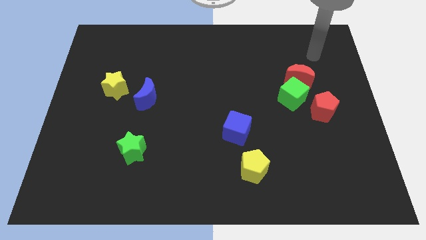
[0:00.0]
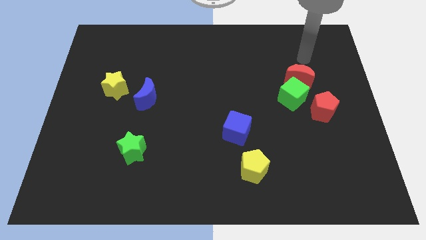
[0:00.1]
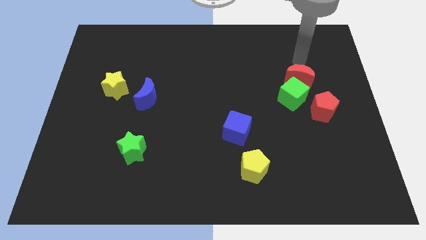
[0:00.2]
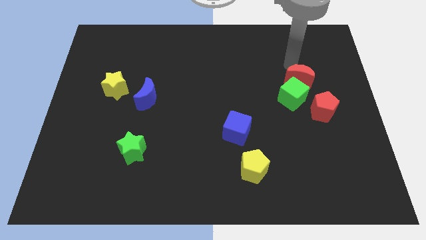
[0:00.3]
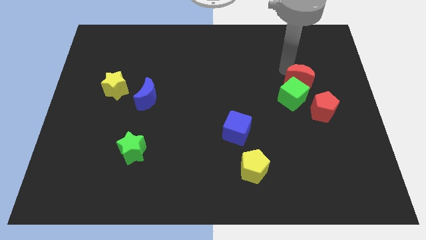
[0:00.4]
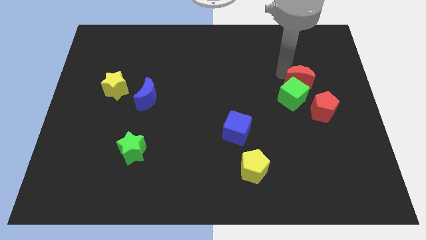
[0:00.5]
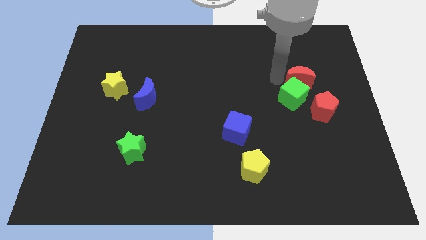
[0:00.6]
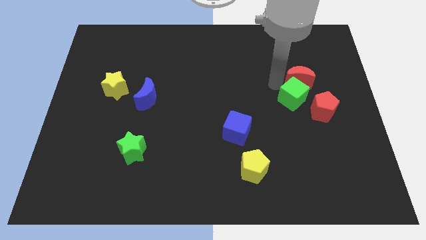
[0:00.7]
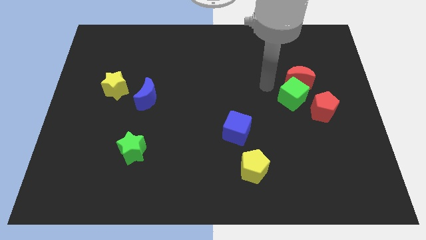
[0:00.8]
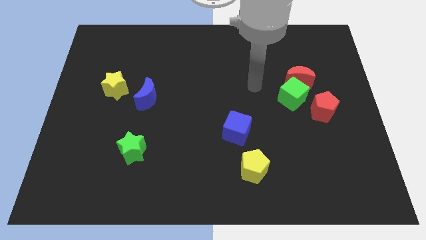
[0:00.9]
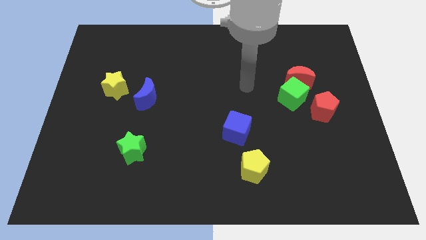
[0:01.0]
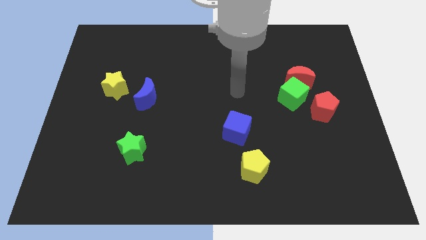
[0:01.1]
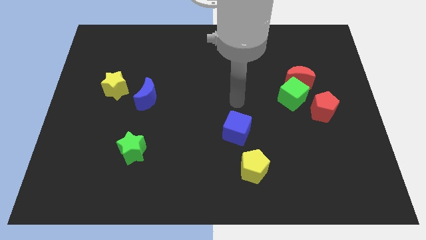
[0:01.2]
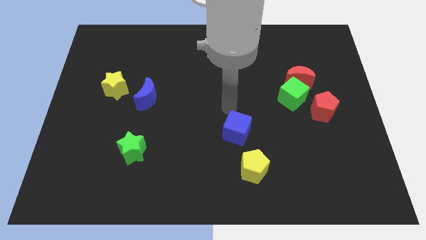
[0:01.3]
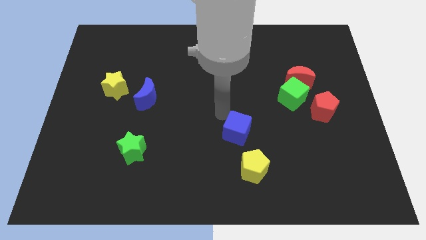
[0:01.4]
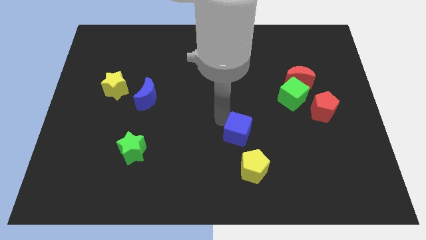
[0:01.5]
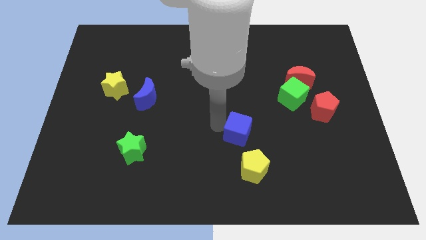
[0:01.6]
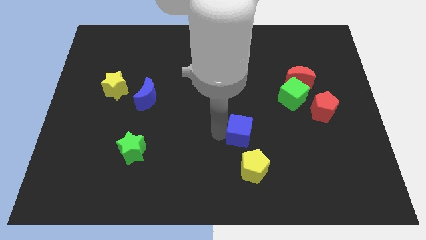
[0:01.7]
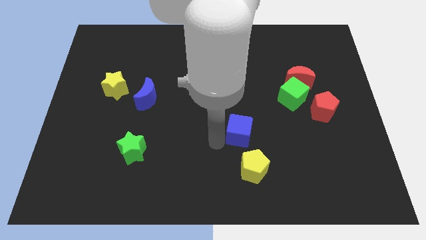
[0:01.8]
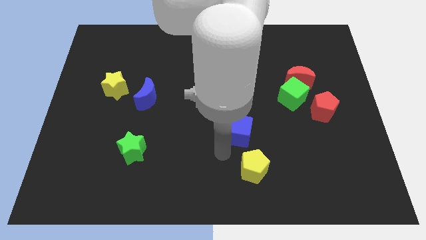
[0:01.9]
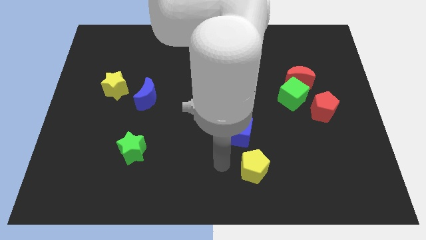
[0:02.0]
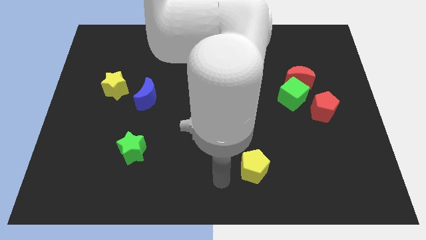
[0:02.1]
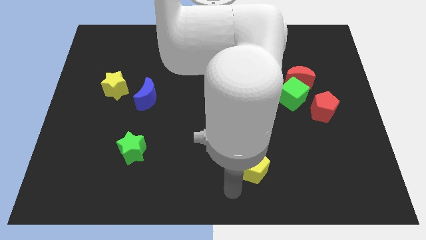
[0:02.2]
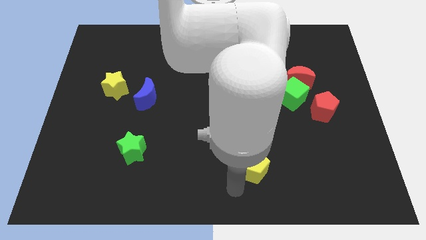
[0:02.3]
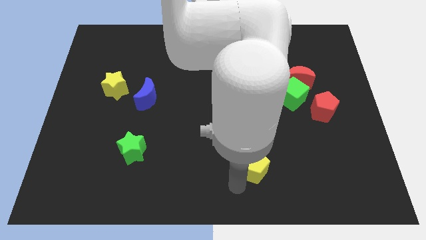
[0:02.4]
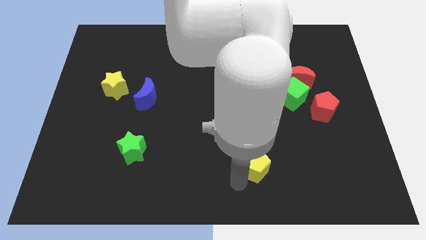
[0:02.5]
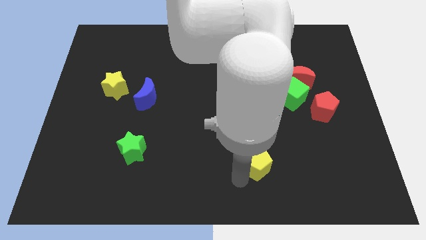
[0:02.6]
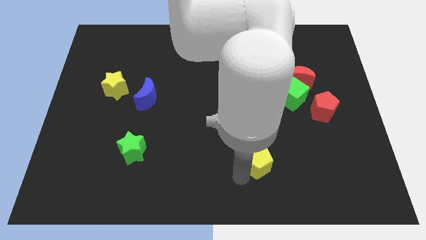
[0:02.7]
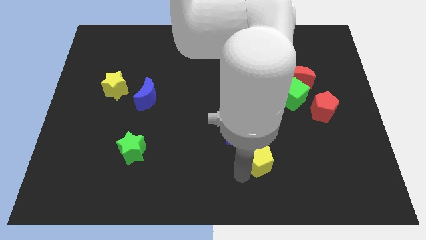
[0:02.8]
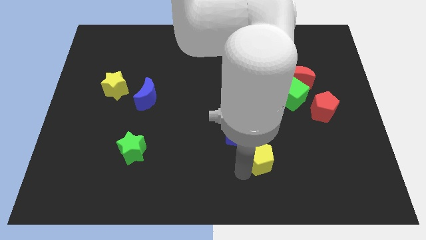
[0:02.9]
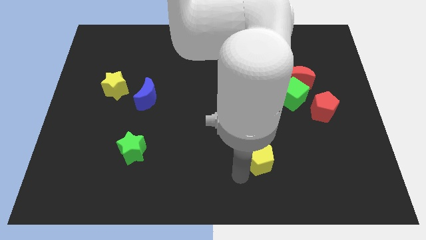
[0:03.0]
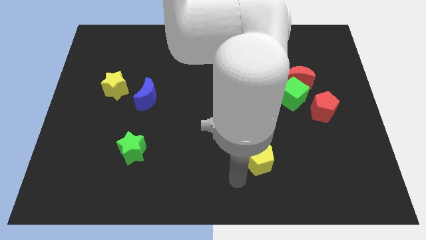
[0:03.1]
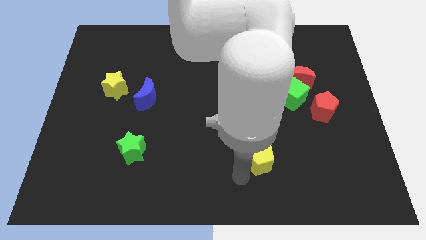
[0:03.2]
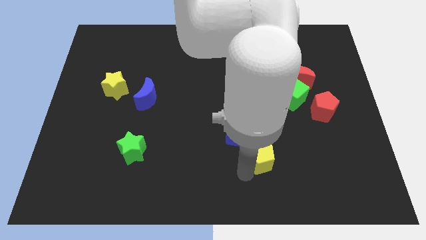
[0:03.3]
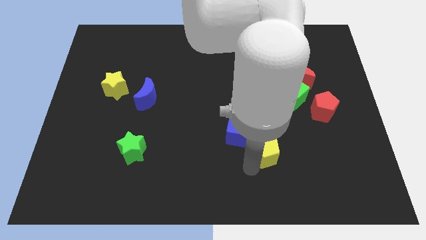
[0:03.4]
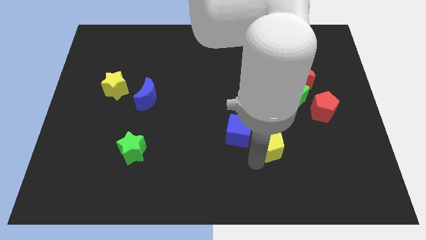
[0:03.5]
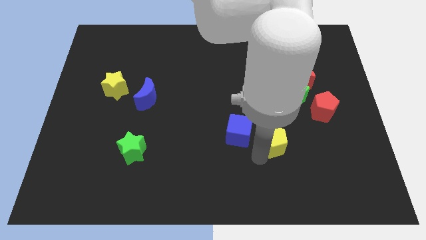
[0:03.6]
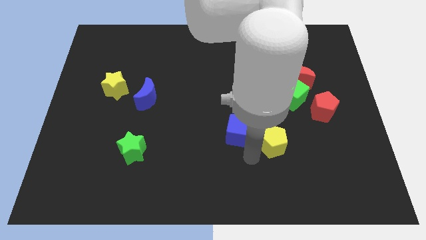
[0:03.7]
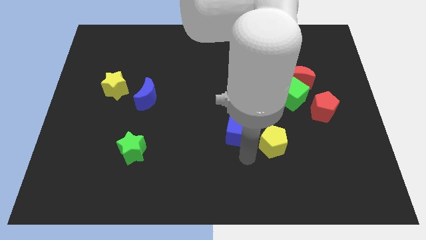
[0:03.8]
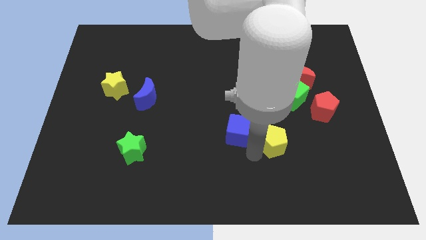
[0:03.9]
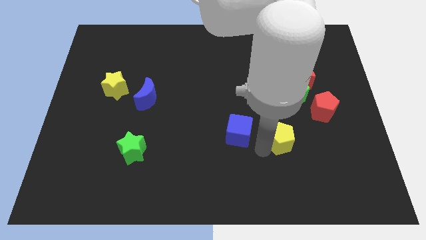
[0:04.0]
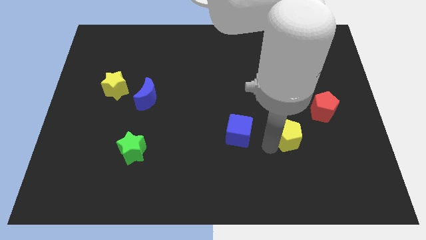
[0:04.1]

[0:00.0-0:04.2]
push the yellow pentagon to the bottom left side of the red pentagon

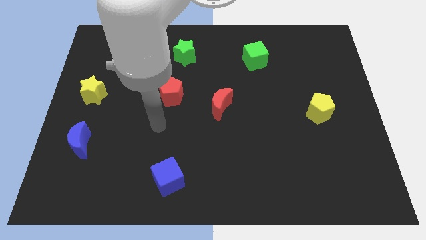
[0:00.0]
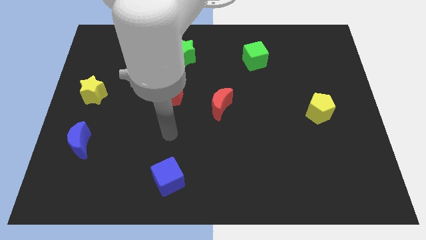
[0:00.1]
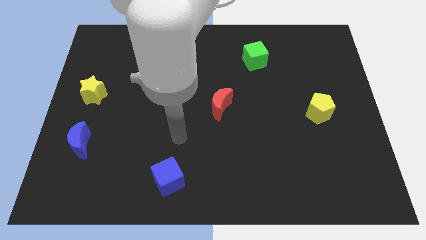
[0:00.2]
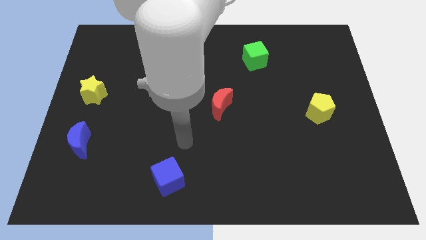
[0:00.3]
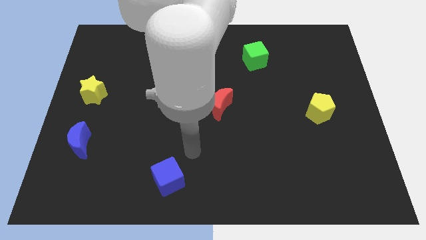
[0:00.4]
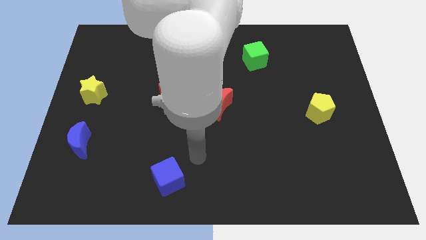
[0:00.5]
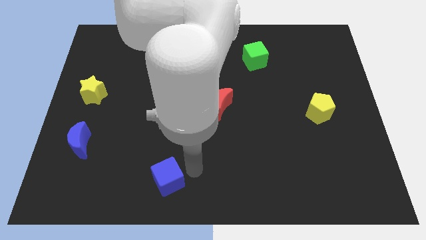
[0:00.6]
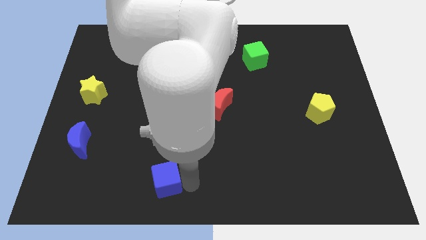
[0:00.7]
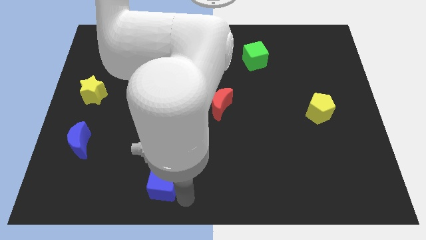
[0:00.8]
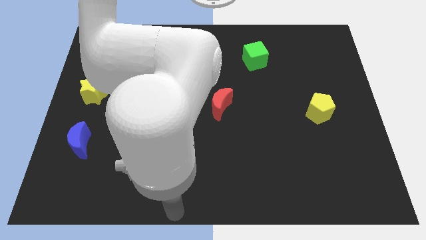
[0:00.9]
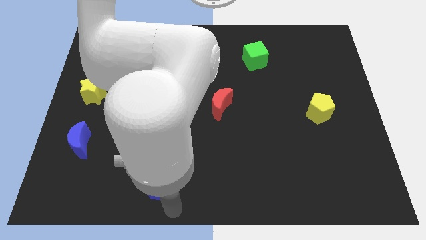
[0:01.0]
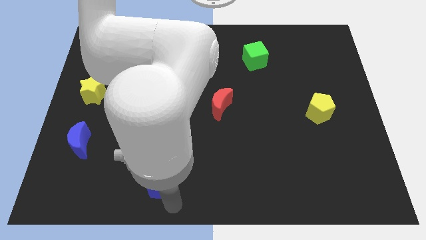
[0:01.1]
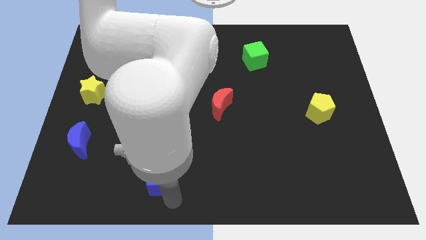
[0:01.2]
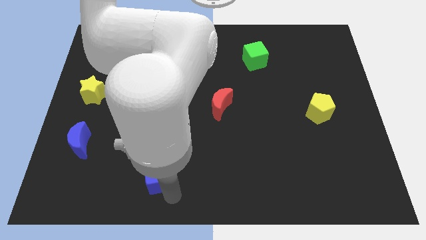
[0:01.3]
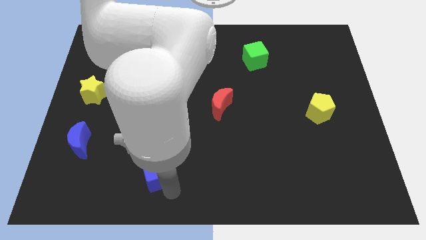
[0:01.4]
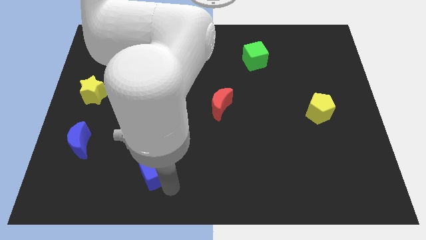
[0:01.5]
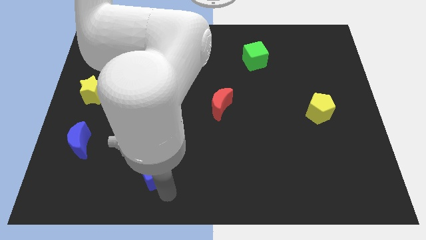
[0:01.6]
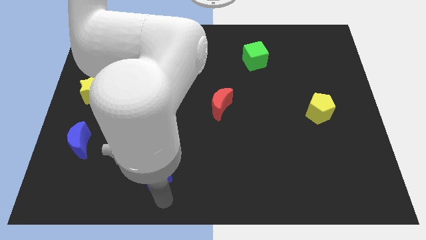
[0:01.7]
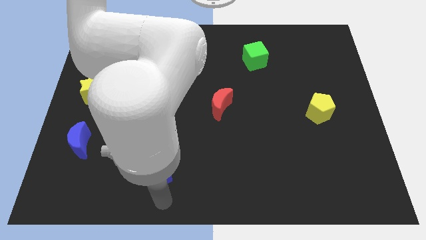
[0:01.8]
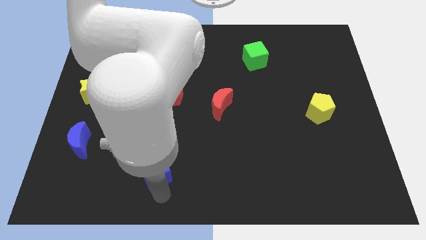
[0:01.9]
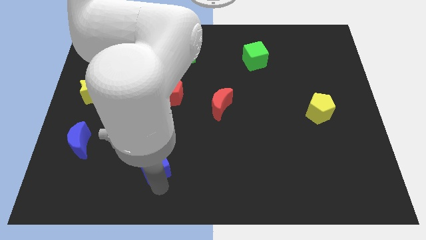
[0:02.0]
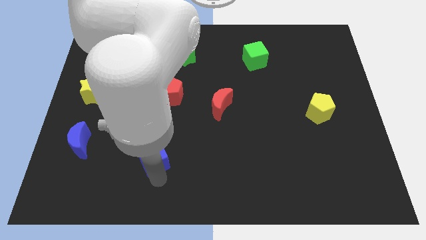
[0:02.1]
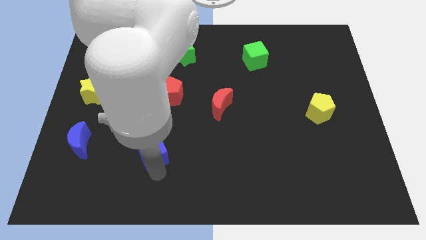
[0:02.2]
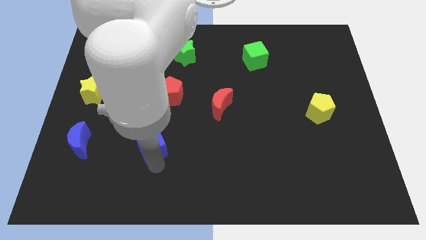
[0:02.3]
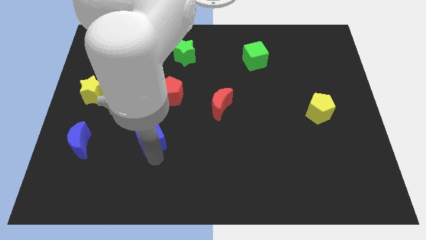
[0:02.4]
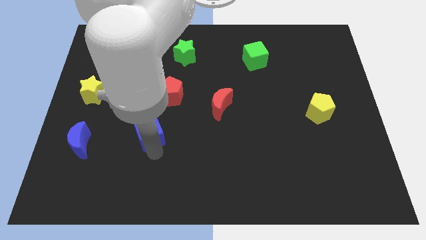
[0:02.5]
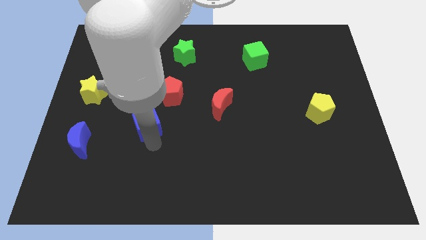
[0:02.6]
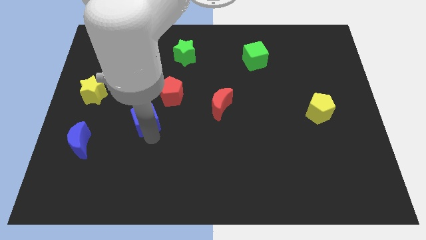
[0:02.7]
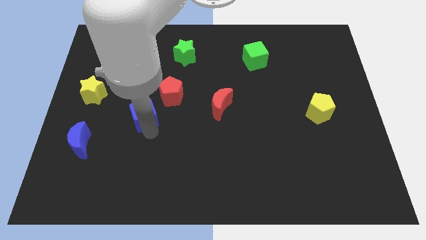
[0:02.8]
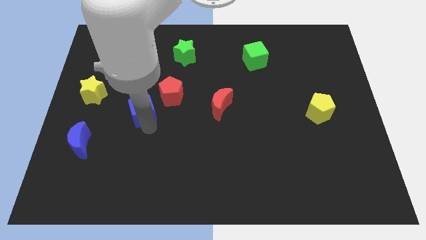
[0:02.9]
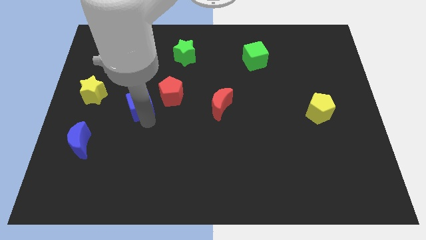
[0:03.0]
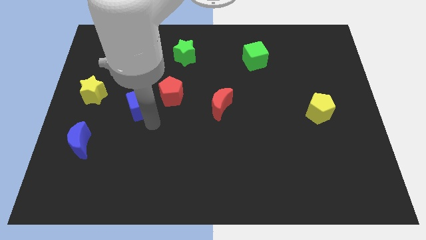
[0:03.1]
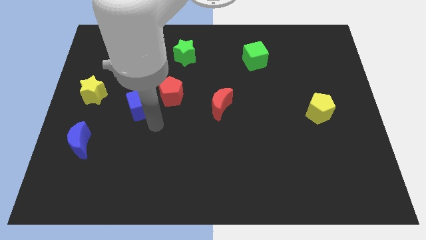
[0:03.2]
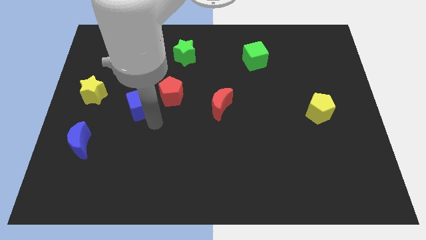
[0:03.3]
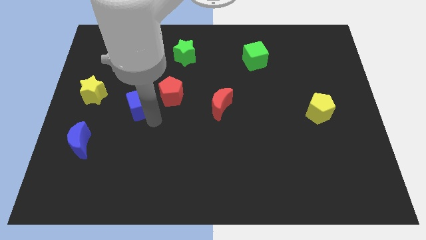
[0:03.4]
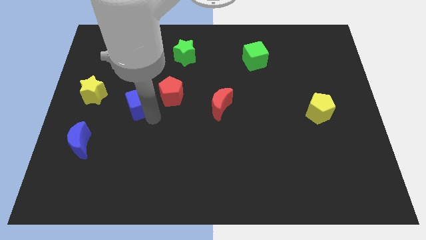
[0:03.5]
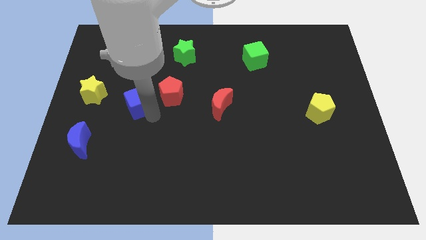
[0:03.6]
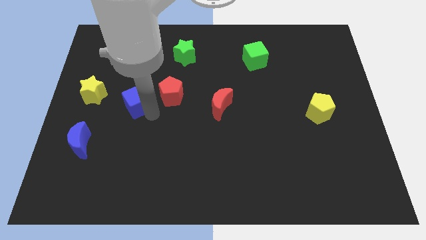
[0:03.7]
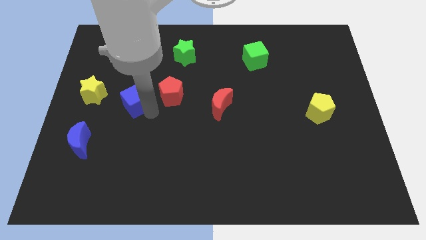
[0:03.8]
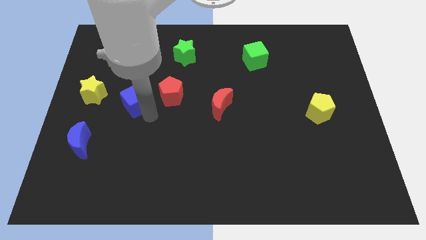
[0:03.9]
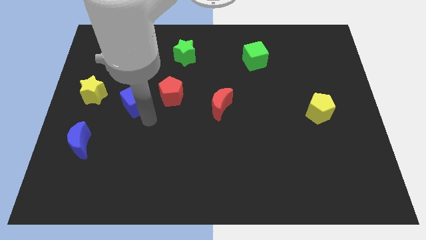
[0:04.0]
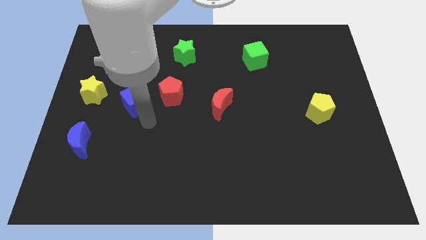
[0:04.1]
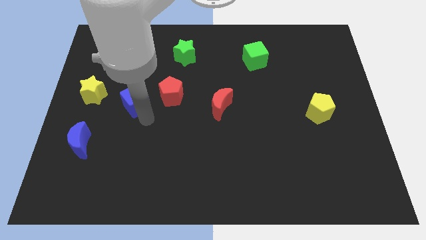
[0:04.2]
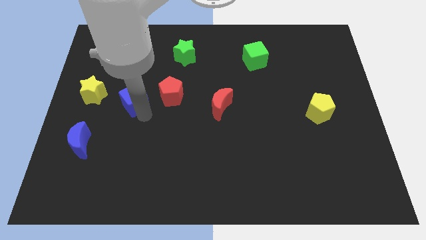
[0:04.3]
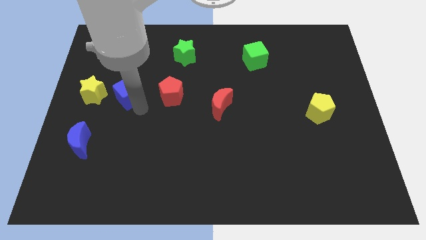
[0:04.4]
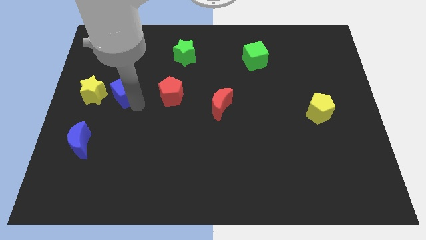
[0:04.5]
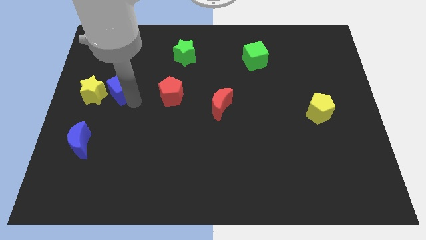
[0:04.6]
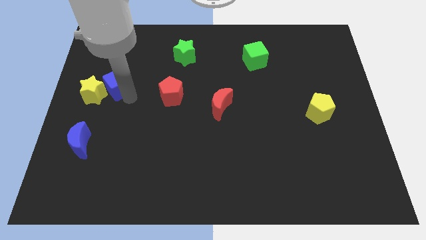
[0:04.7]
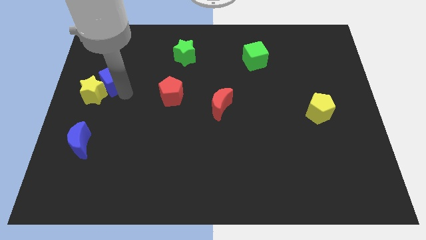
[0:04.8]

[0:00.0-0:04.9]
move the blue cube above the yellow star
